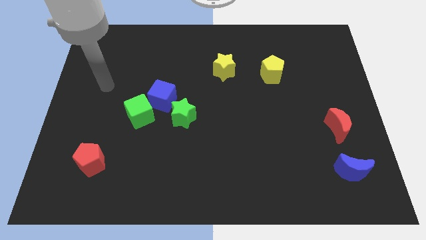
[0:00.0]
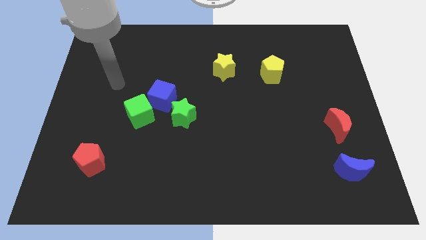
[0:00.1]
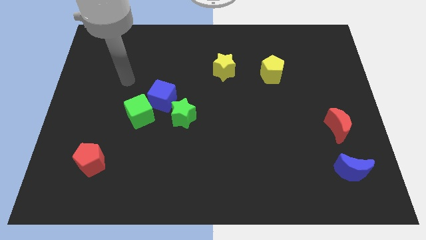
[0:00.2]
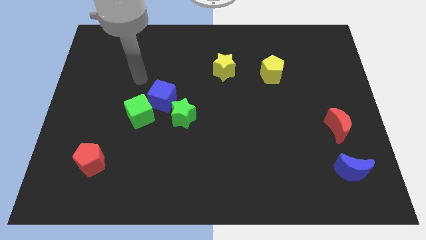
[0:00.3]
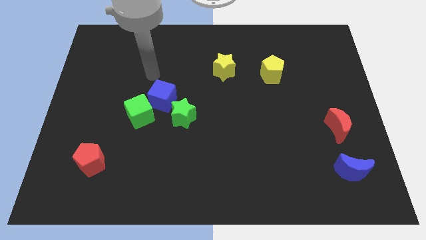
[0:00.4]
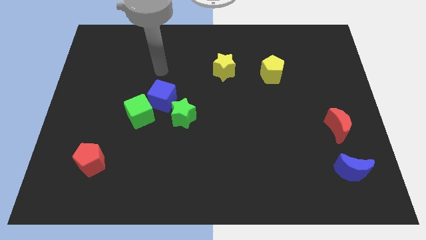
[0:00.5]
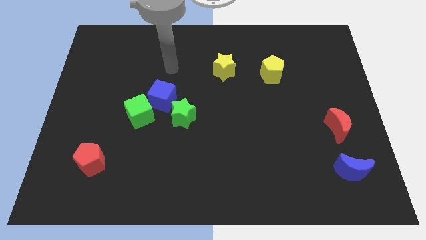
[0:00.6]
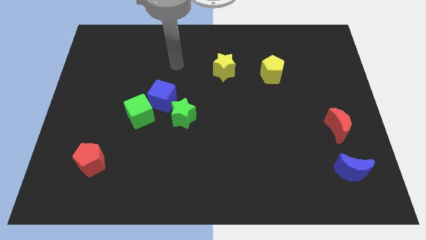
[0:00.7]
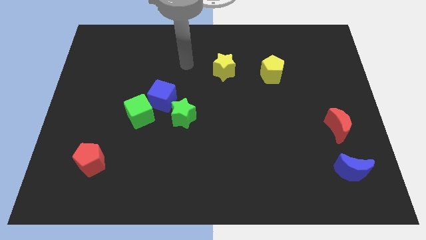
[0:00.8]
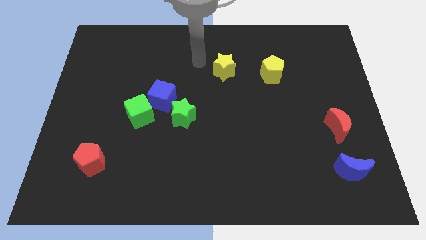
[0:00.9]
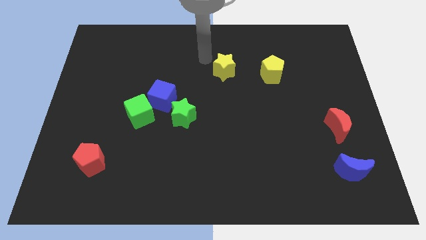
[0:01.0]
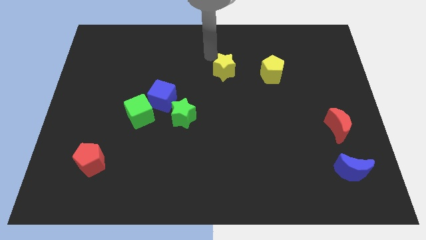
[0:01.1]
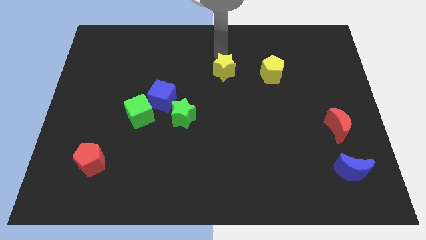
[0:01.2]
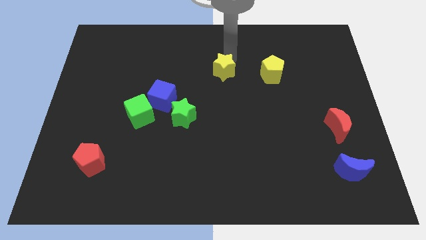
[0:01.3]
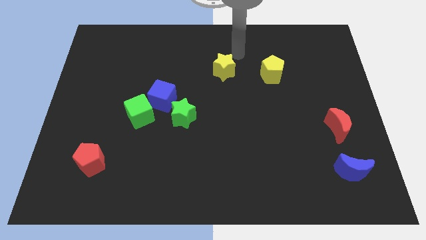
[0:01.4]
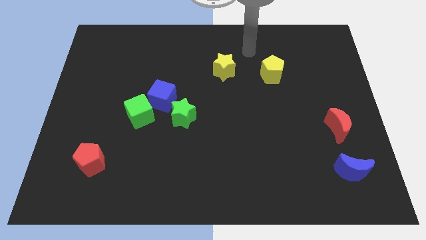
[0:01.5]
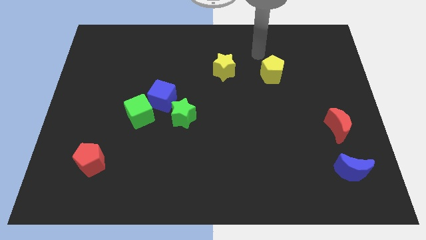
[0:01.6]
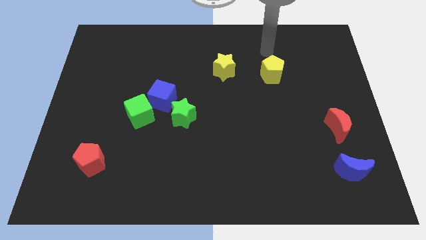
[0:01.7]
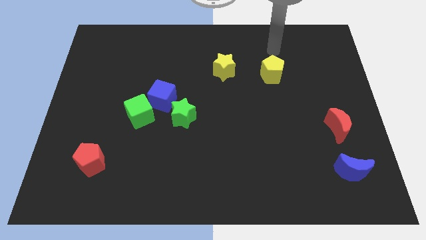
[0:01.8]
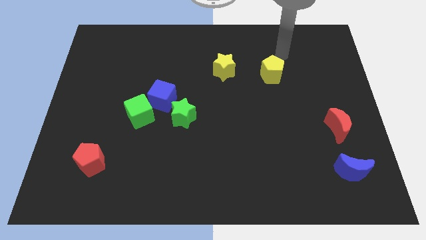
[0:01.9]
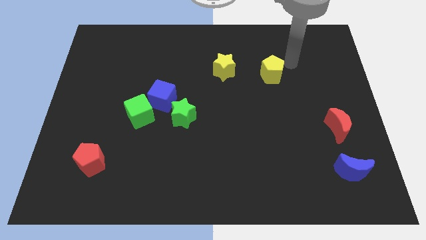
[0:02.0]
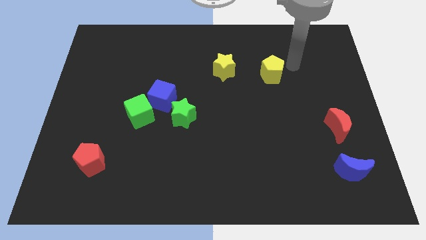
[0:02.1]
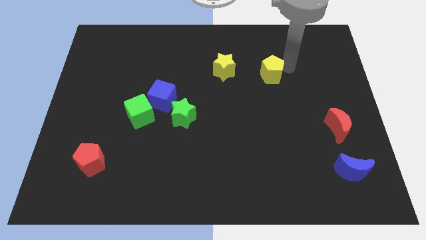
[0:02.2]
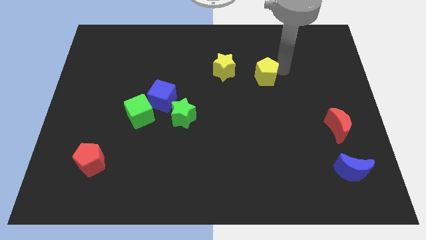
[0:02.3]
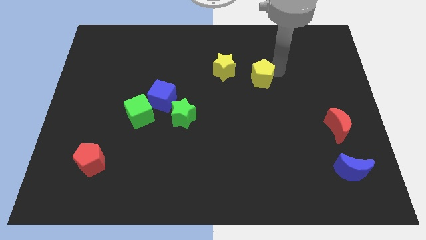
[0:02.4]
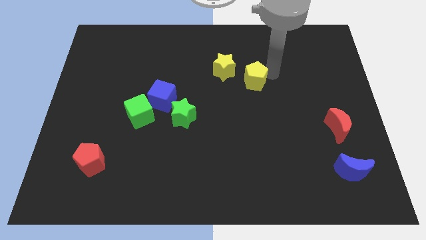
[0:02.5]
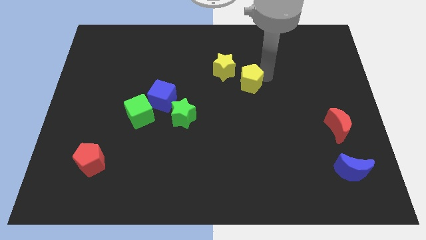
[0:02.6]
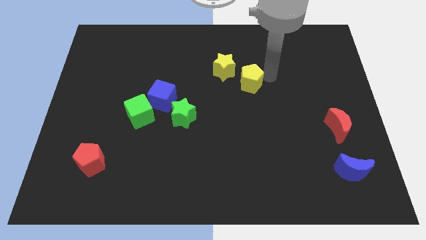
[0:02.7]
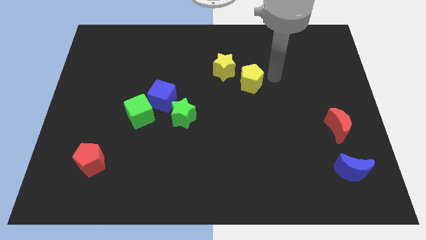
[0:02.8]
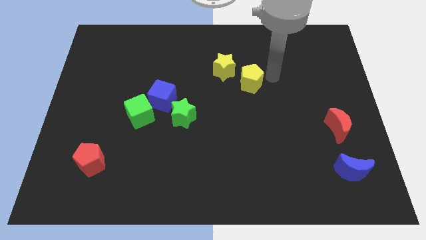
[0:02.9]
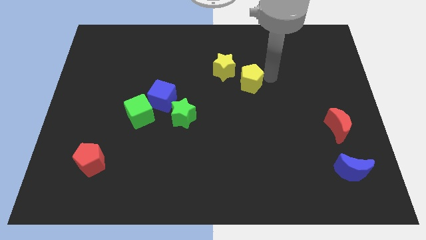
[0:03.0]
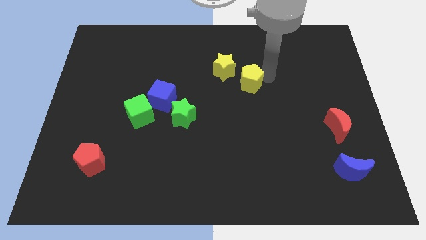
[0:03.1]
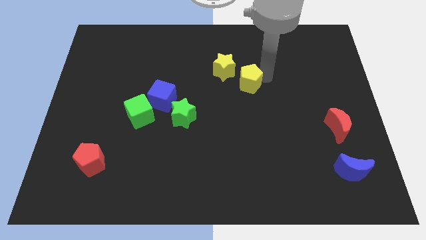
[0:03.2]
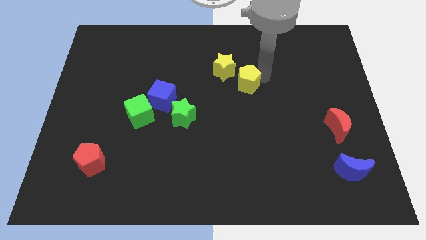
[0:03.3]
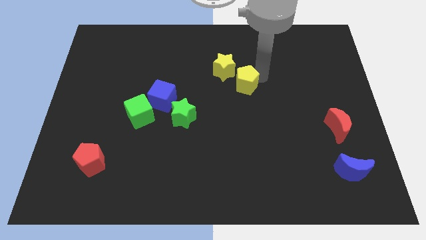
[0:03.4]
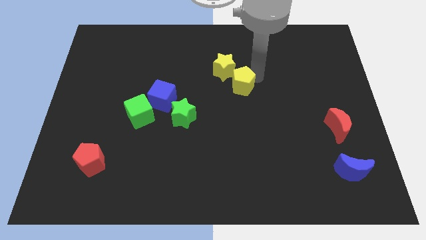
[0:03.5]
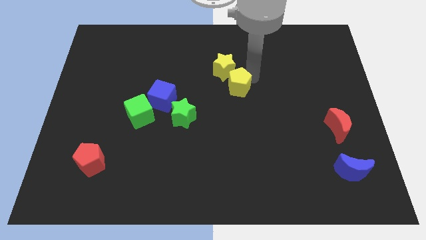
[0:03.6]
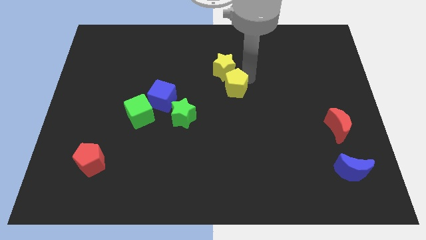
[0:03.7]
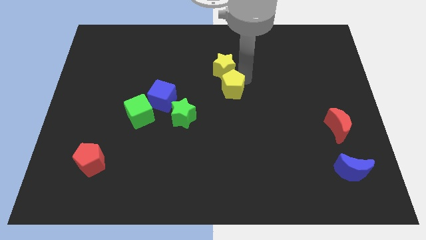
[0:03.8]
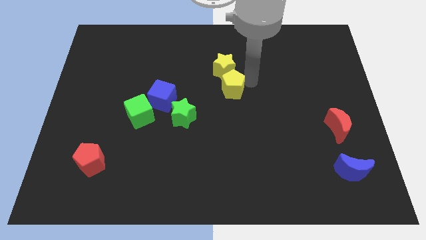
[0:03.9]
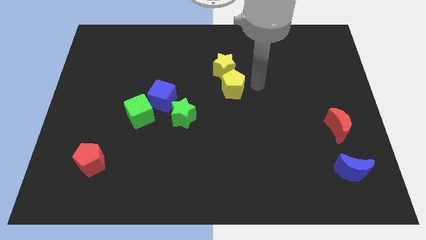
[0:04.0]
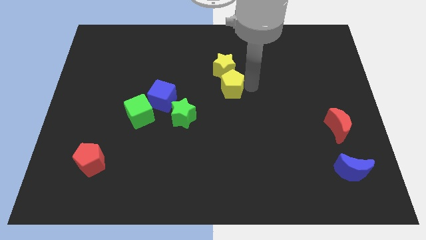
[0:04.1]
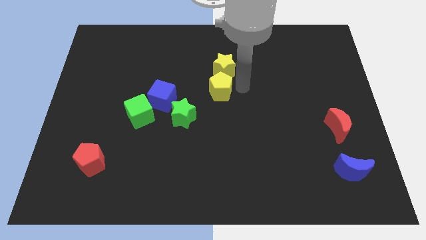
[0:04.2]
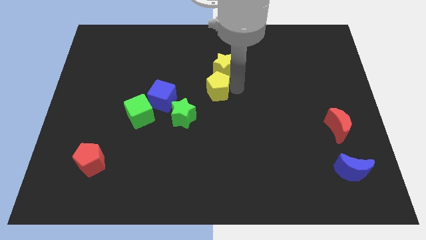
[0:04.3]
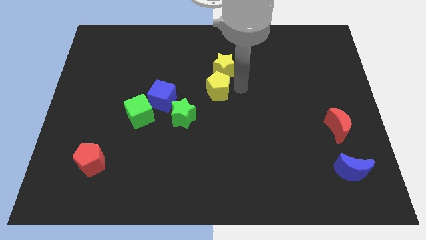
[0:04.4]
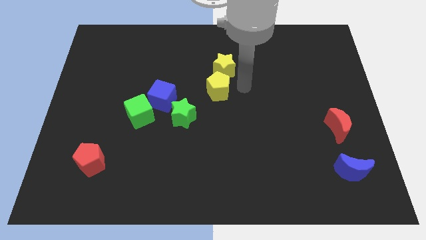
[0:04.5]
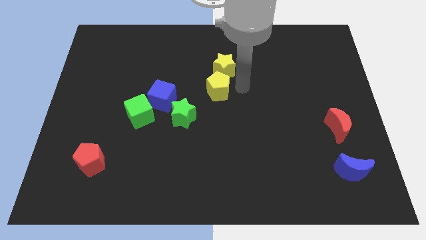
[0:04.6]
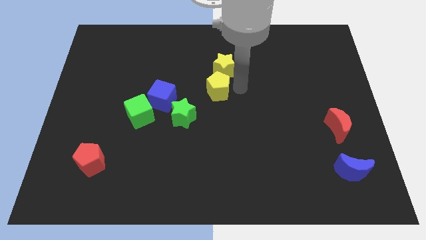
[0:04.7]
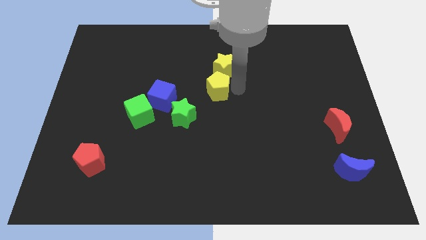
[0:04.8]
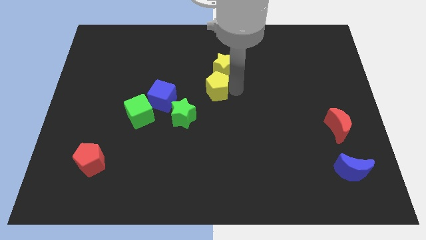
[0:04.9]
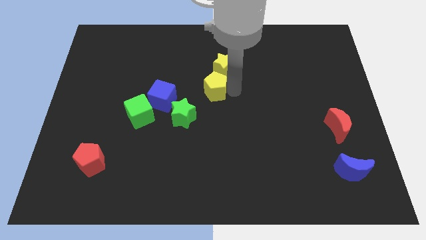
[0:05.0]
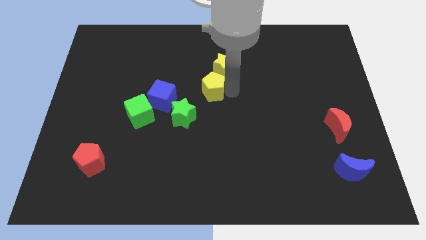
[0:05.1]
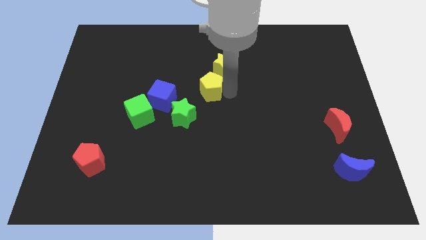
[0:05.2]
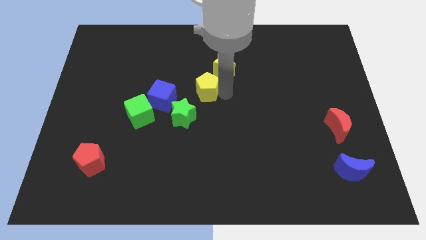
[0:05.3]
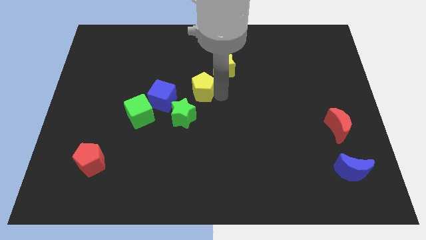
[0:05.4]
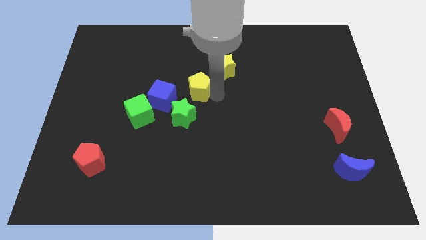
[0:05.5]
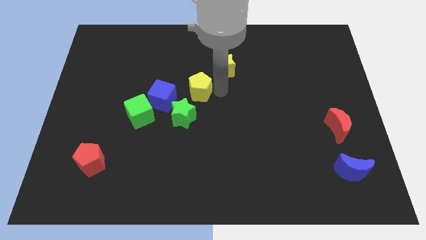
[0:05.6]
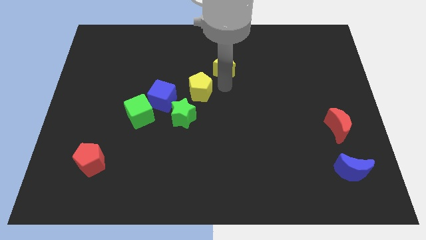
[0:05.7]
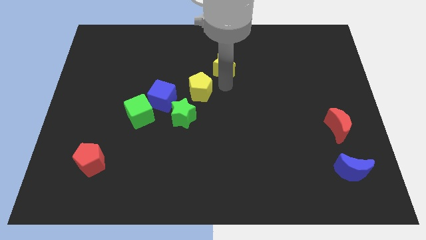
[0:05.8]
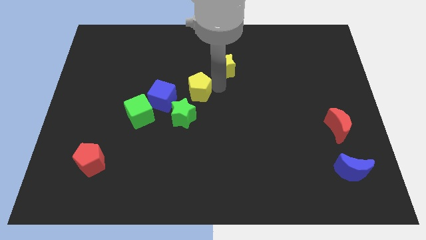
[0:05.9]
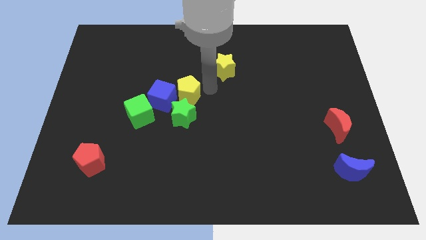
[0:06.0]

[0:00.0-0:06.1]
move the yellow pentagon close to the blue cube

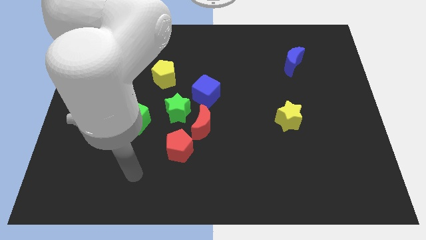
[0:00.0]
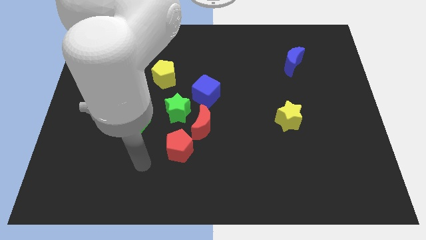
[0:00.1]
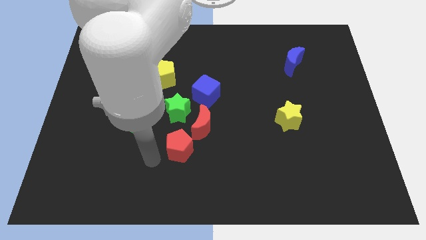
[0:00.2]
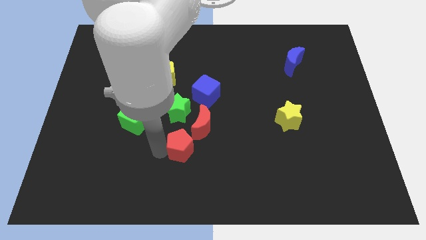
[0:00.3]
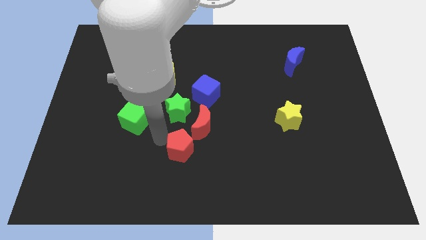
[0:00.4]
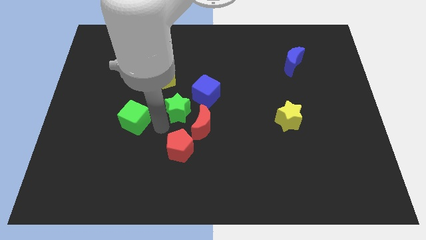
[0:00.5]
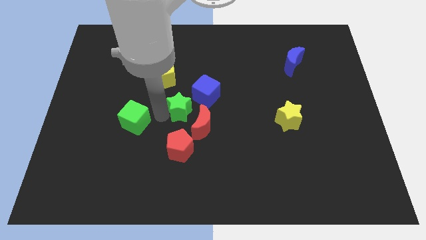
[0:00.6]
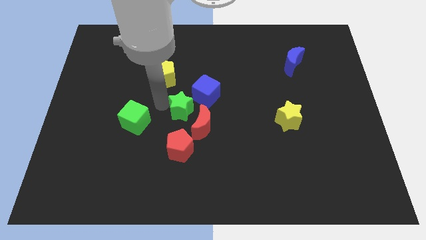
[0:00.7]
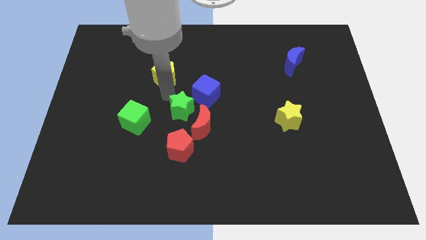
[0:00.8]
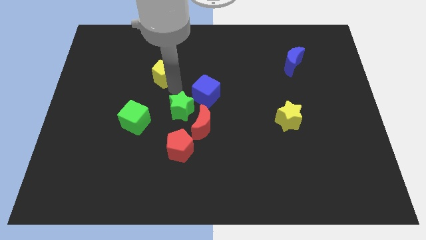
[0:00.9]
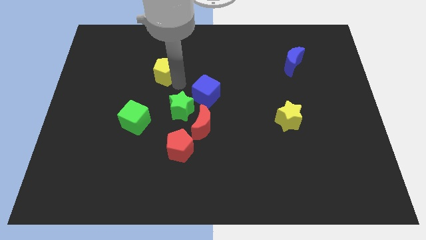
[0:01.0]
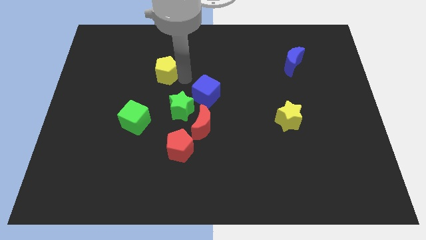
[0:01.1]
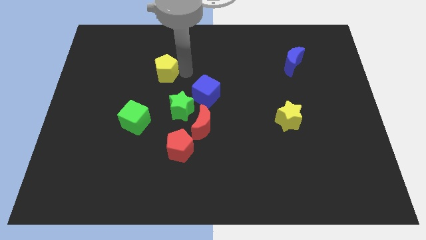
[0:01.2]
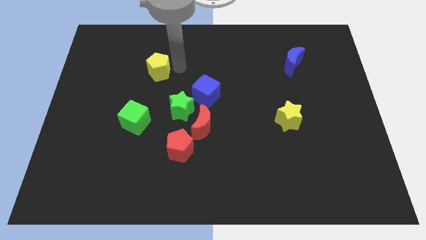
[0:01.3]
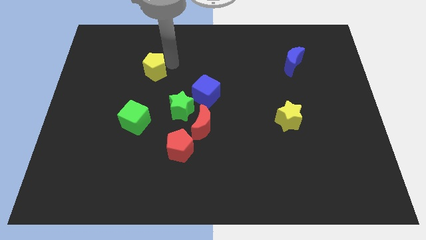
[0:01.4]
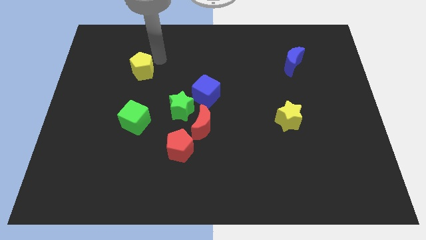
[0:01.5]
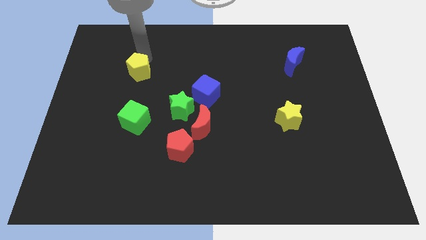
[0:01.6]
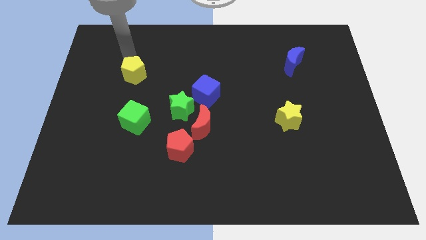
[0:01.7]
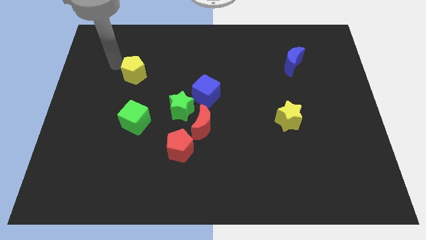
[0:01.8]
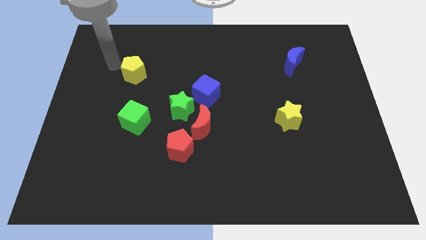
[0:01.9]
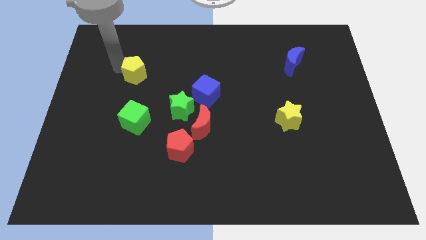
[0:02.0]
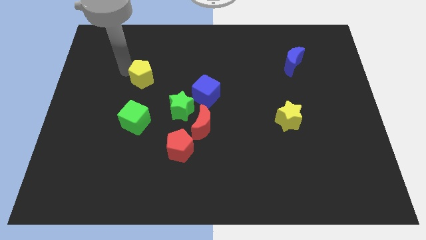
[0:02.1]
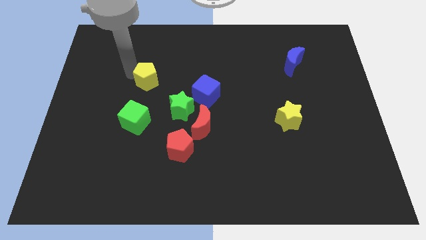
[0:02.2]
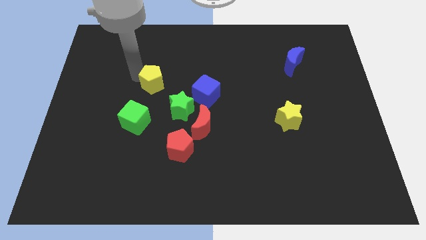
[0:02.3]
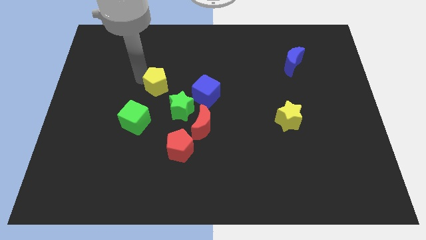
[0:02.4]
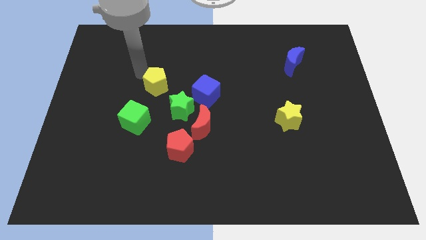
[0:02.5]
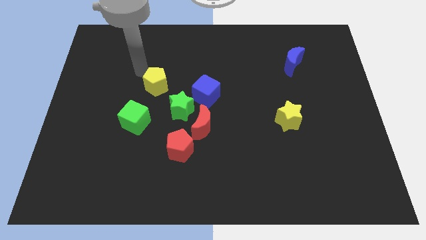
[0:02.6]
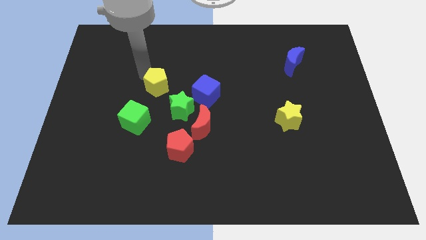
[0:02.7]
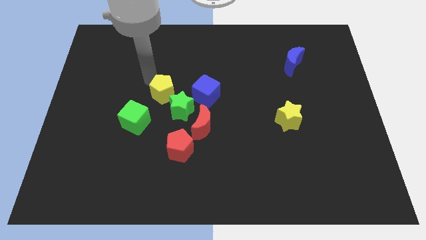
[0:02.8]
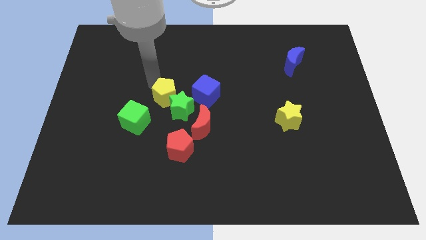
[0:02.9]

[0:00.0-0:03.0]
push the yellow pentagon close to the green star
